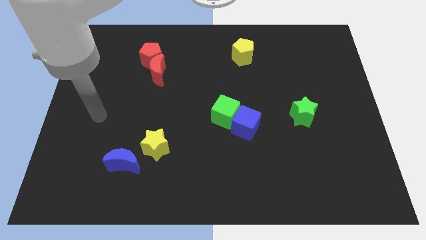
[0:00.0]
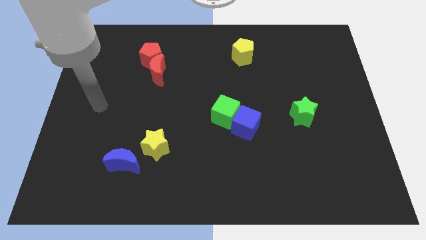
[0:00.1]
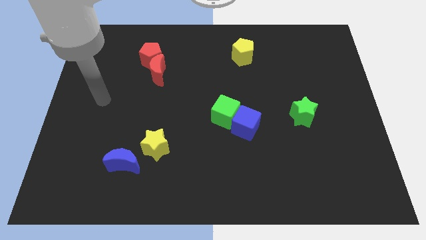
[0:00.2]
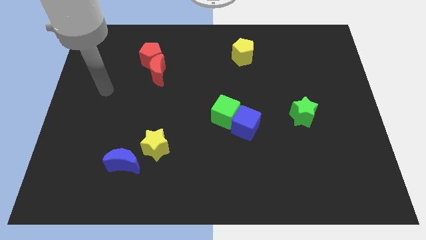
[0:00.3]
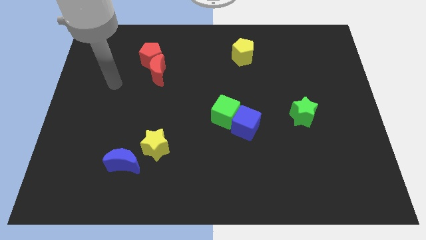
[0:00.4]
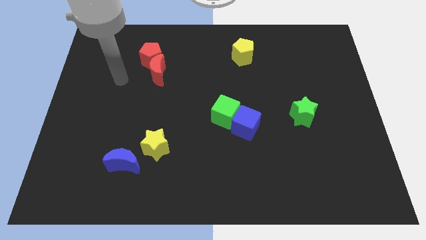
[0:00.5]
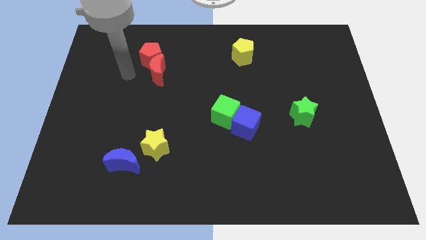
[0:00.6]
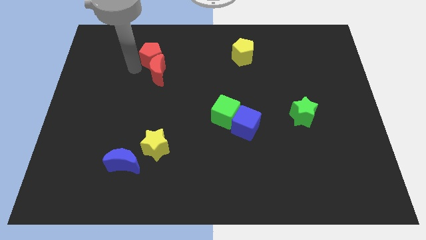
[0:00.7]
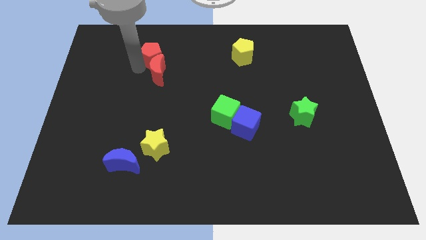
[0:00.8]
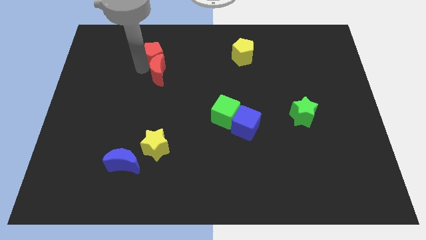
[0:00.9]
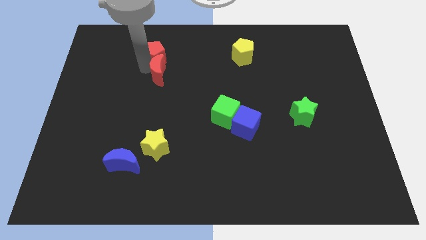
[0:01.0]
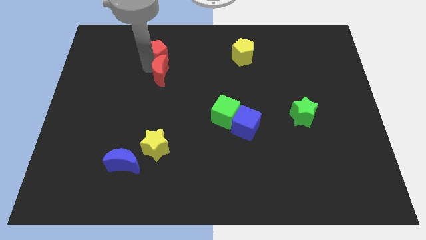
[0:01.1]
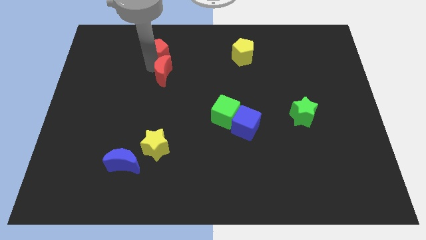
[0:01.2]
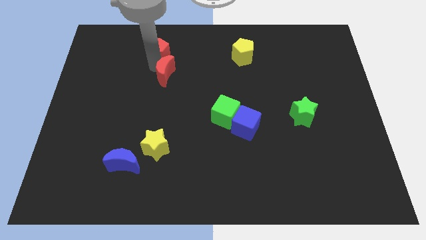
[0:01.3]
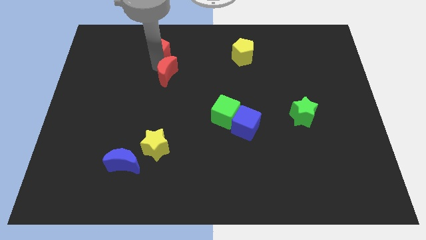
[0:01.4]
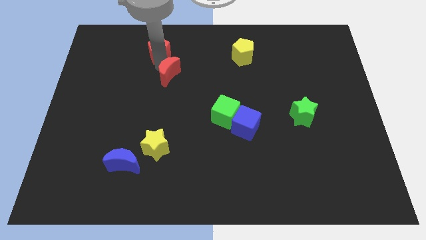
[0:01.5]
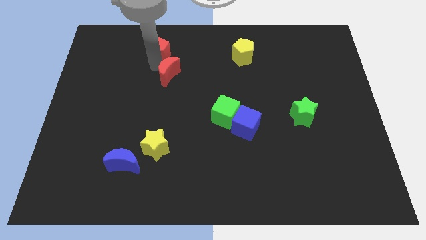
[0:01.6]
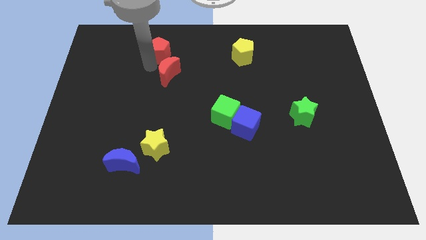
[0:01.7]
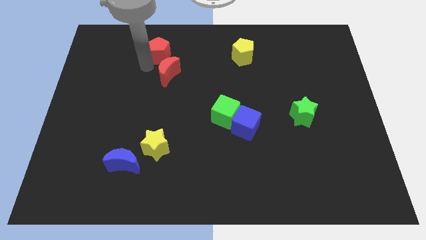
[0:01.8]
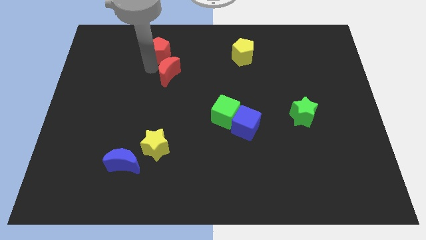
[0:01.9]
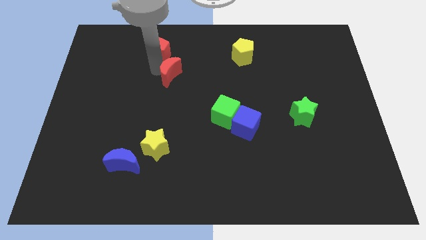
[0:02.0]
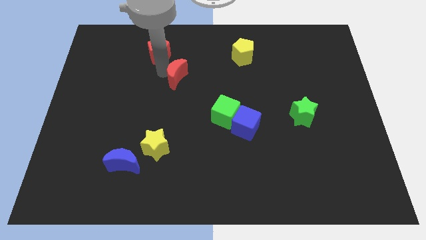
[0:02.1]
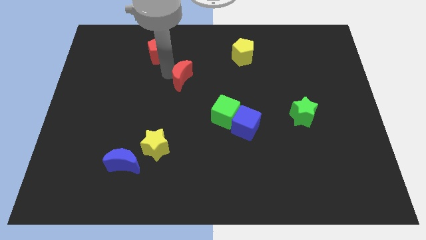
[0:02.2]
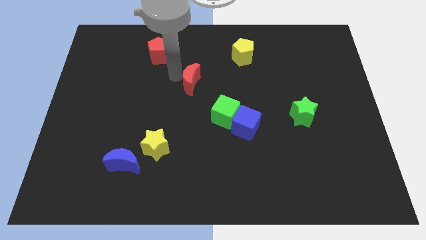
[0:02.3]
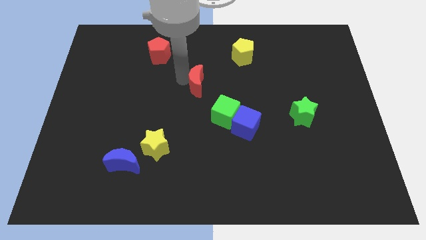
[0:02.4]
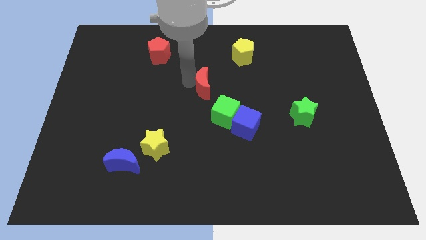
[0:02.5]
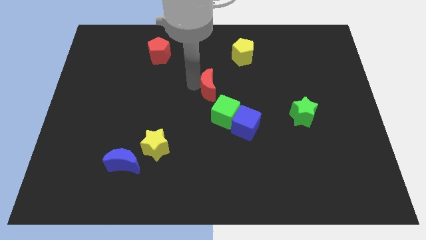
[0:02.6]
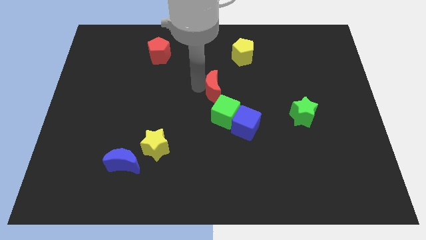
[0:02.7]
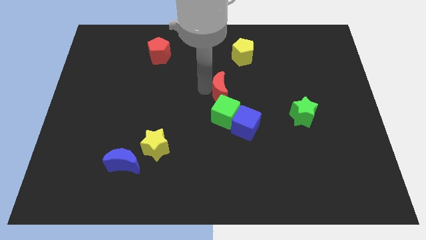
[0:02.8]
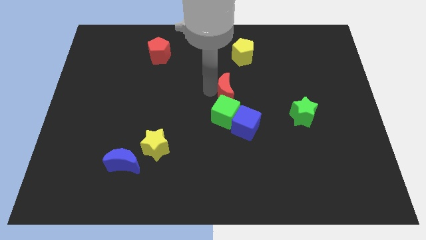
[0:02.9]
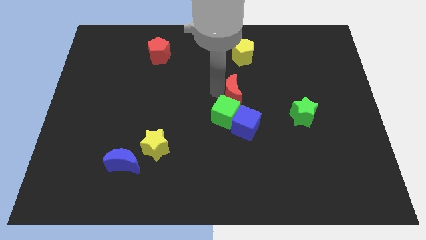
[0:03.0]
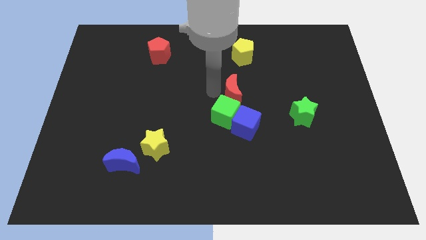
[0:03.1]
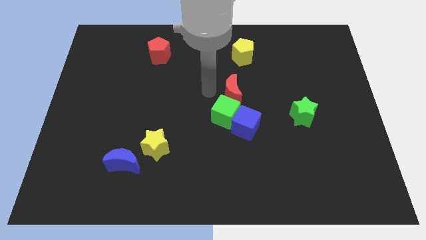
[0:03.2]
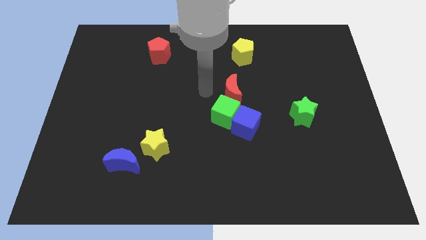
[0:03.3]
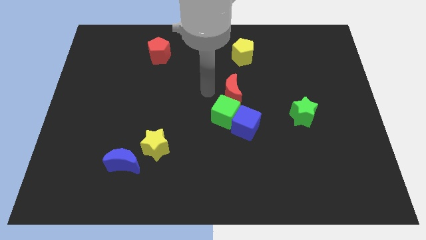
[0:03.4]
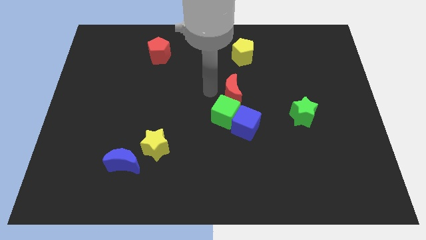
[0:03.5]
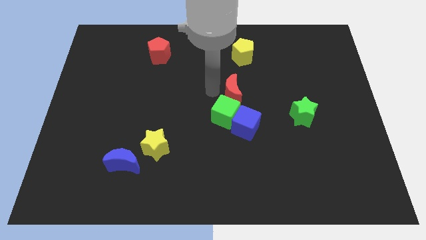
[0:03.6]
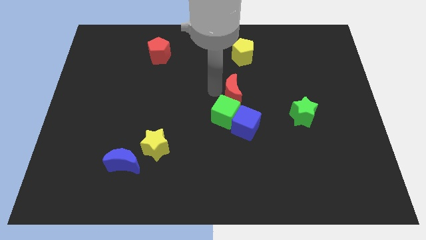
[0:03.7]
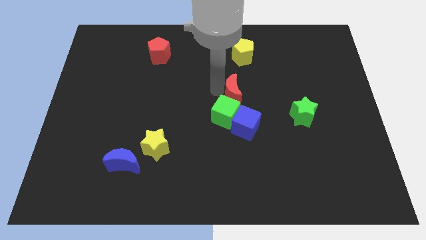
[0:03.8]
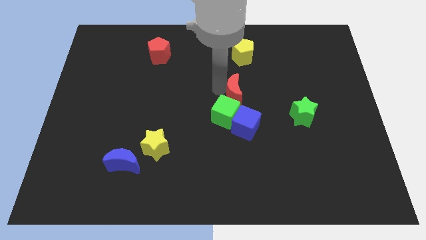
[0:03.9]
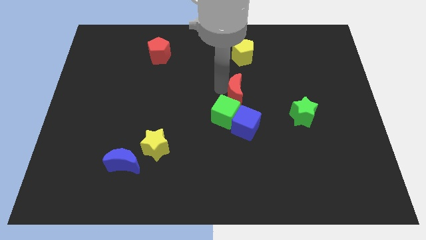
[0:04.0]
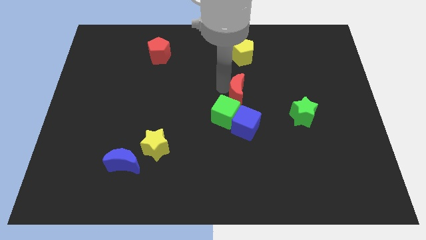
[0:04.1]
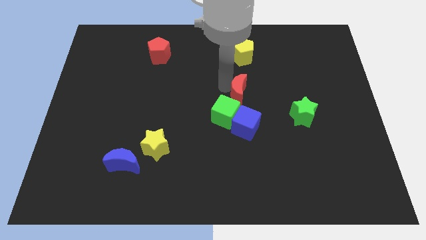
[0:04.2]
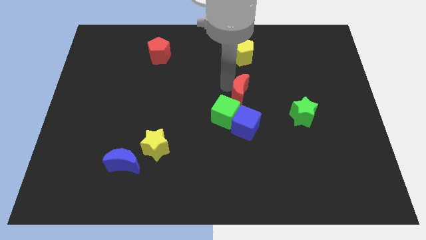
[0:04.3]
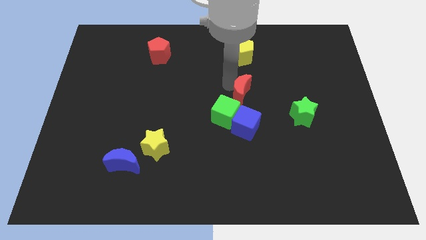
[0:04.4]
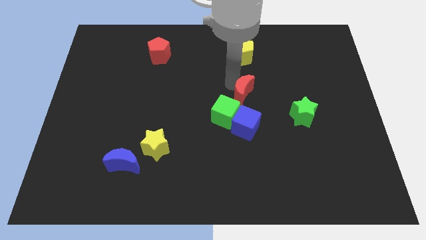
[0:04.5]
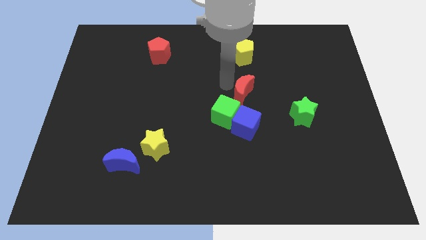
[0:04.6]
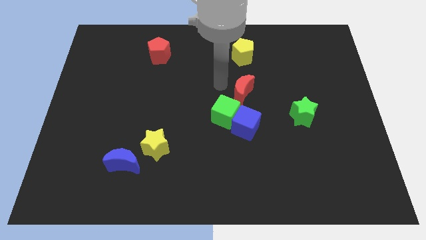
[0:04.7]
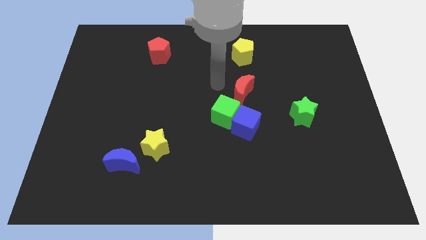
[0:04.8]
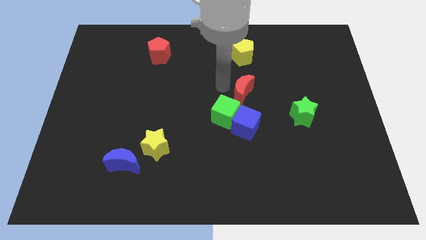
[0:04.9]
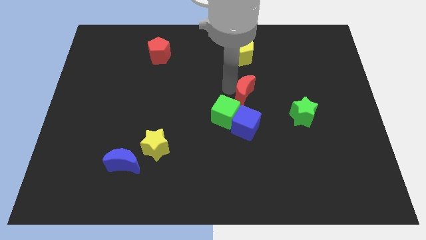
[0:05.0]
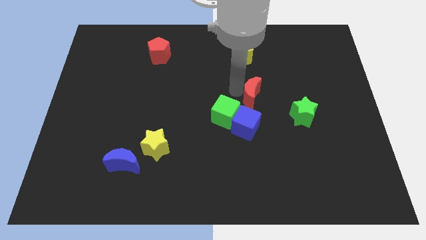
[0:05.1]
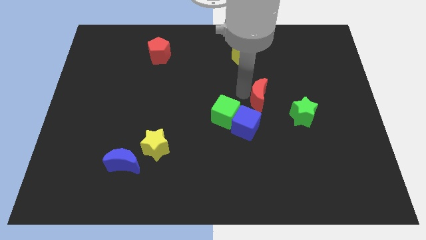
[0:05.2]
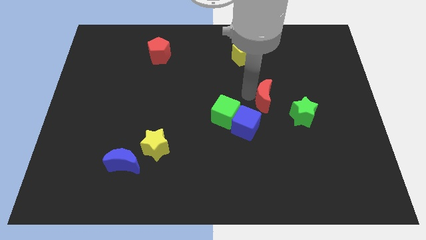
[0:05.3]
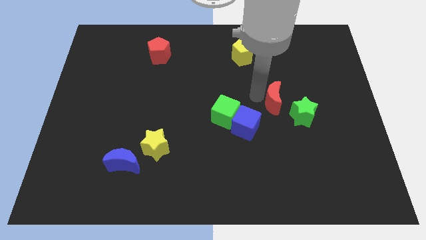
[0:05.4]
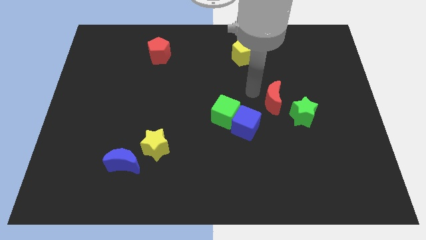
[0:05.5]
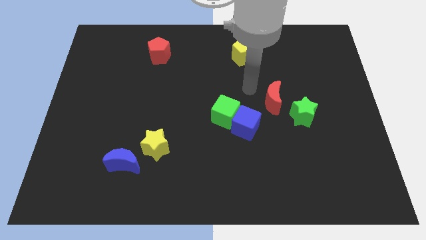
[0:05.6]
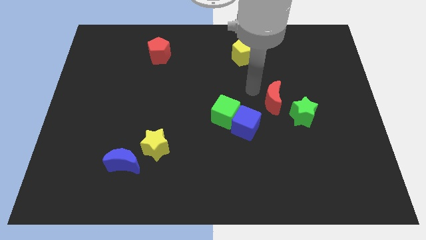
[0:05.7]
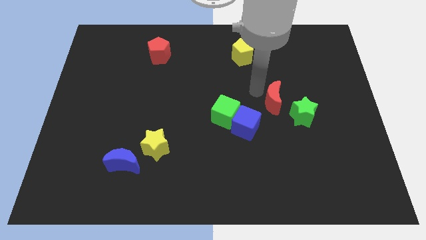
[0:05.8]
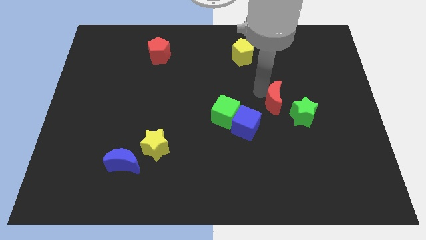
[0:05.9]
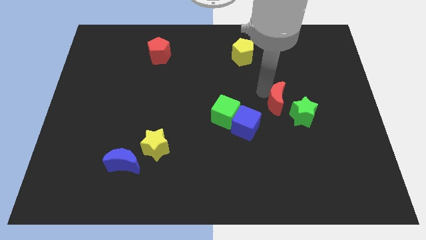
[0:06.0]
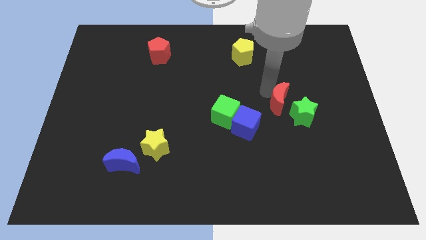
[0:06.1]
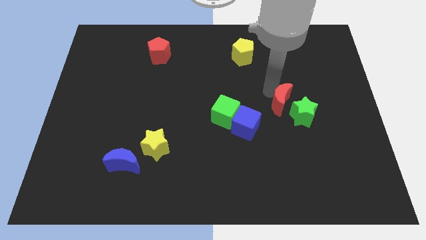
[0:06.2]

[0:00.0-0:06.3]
push the red moon towards the green star
